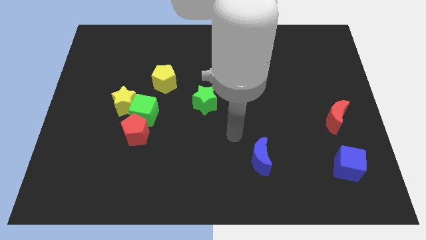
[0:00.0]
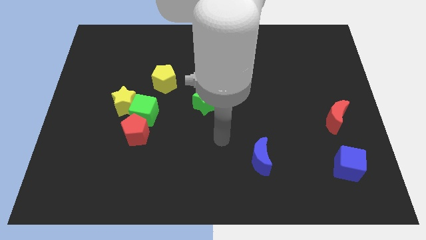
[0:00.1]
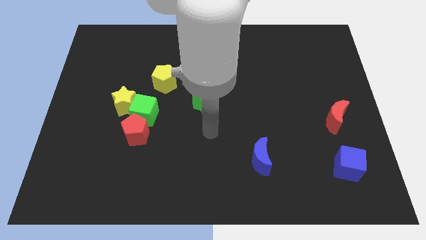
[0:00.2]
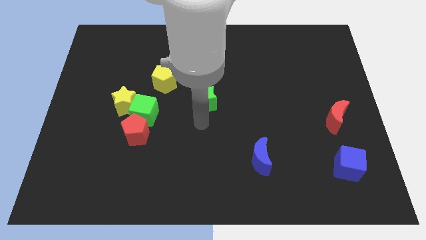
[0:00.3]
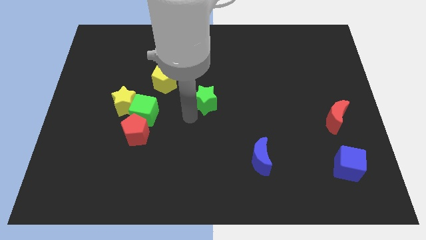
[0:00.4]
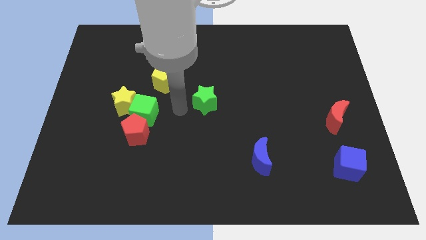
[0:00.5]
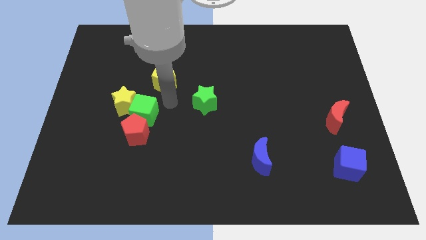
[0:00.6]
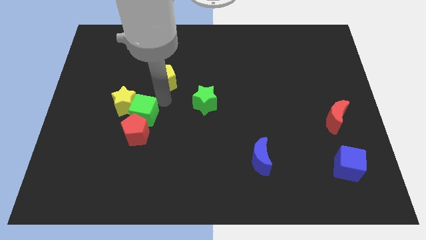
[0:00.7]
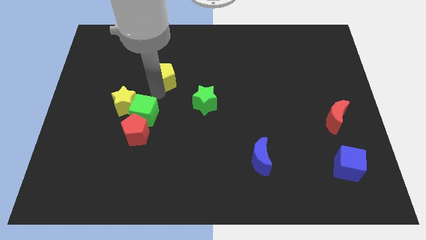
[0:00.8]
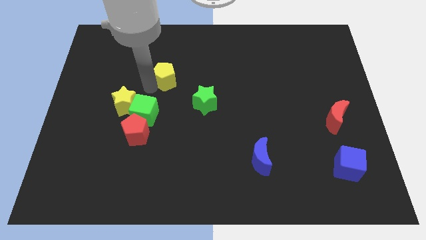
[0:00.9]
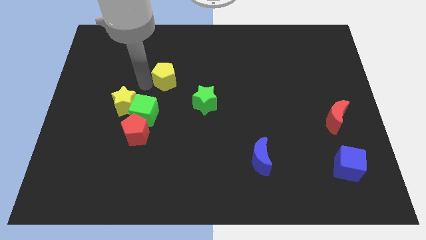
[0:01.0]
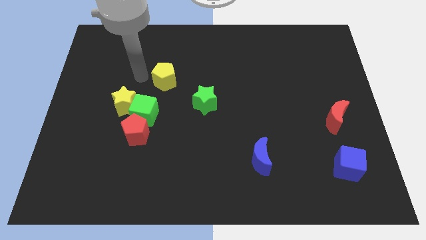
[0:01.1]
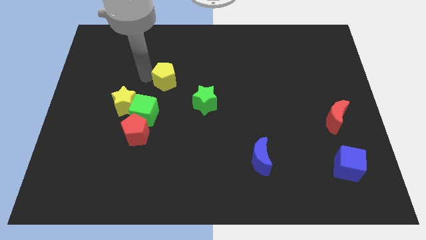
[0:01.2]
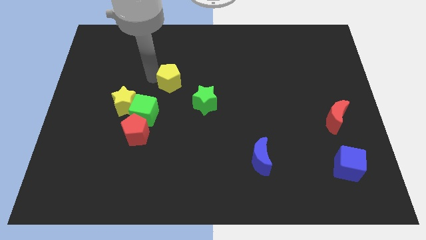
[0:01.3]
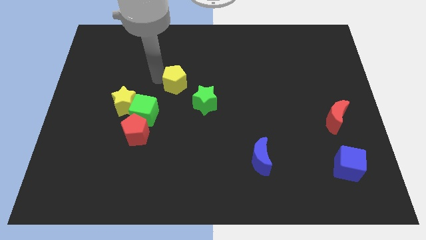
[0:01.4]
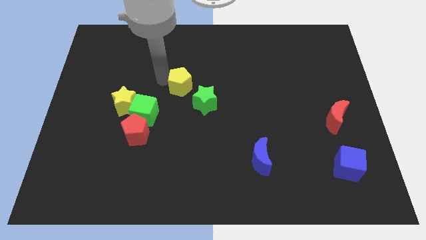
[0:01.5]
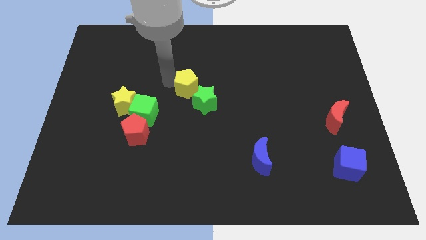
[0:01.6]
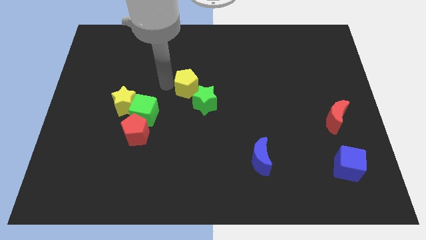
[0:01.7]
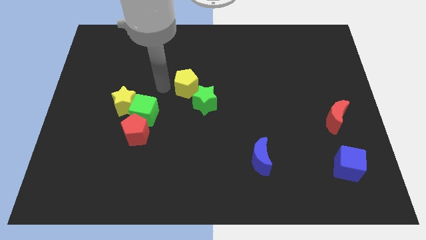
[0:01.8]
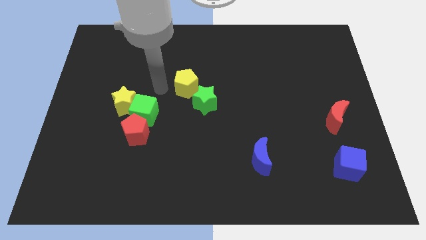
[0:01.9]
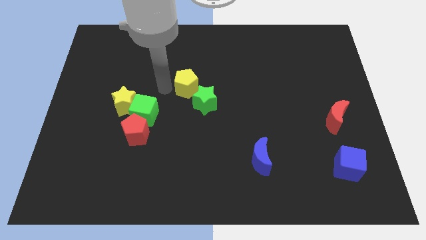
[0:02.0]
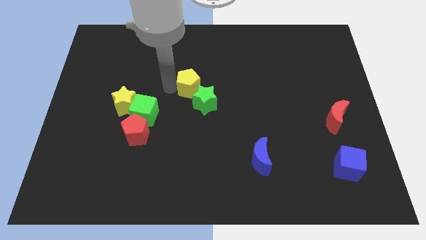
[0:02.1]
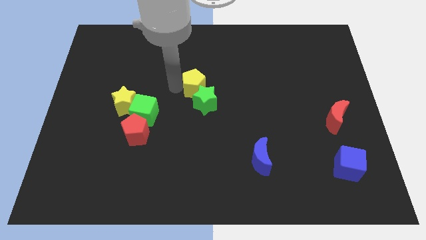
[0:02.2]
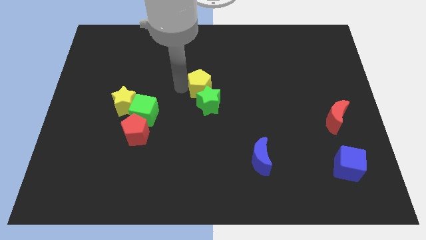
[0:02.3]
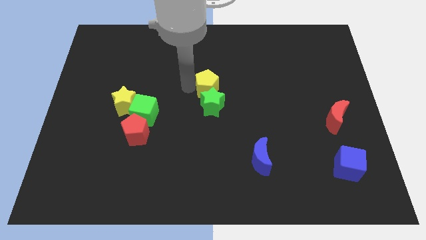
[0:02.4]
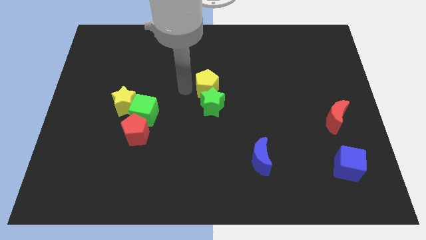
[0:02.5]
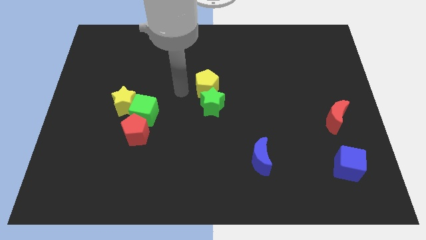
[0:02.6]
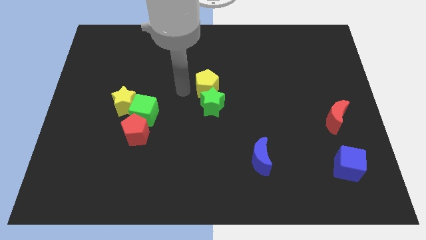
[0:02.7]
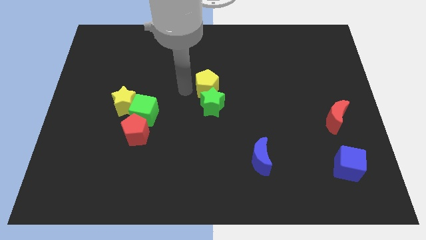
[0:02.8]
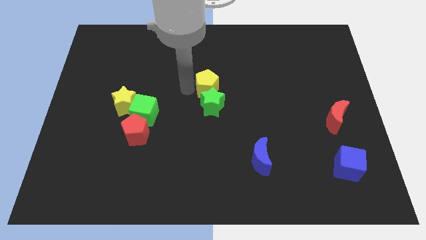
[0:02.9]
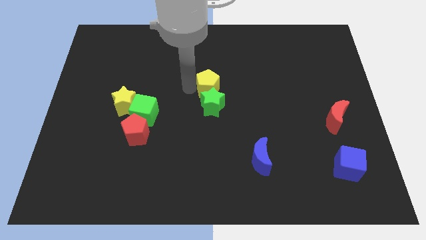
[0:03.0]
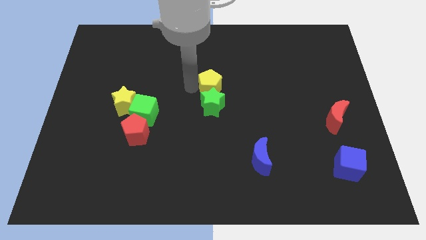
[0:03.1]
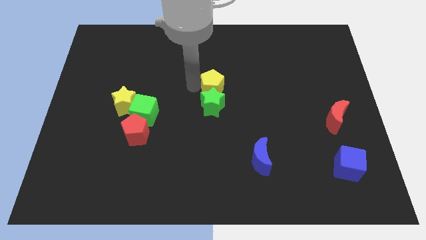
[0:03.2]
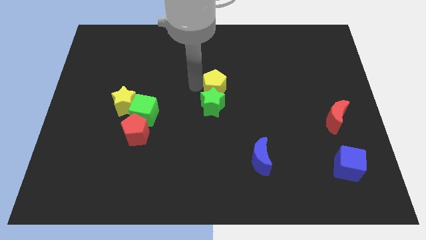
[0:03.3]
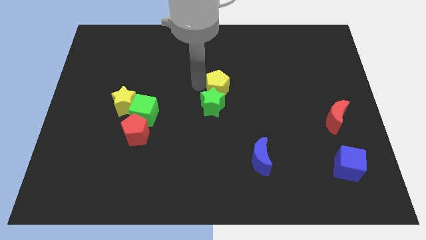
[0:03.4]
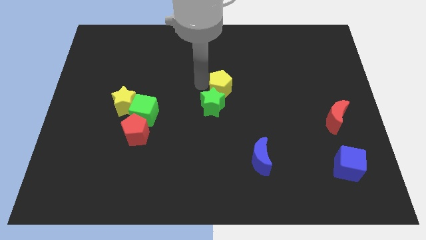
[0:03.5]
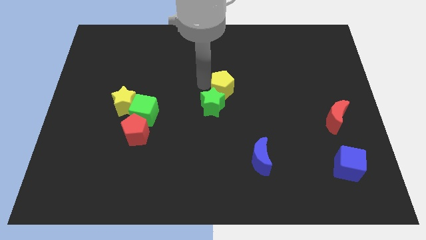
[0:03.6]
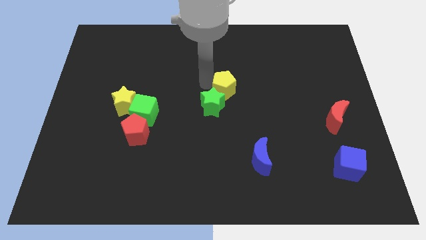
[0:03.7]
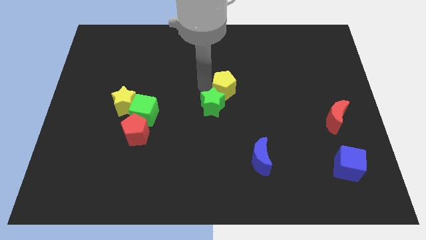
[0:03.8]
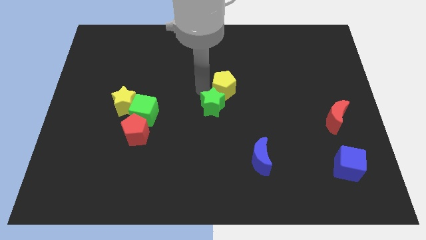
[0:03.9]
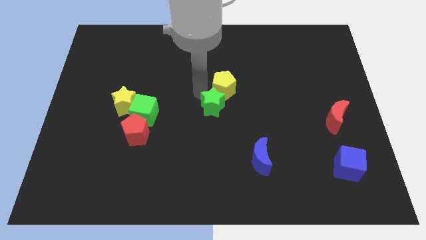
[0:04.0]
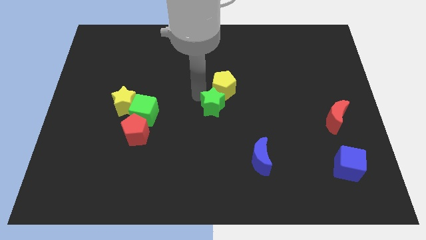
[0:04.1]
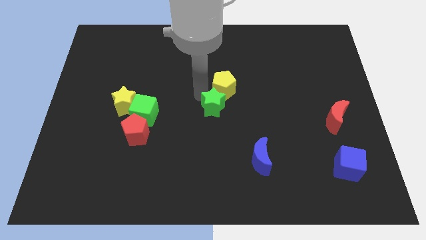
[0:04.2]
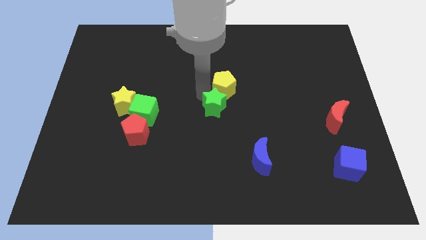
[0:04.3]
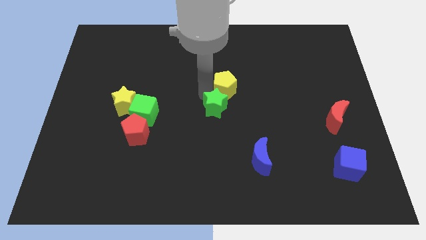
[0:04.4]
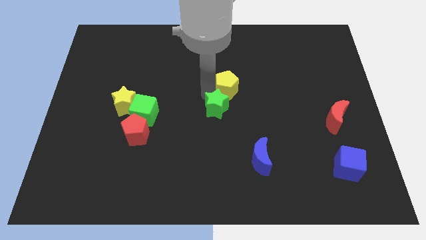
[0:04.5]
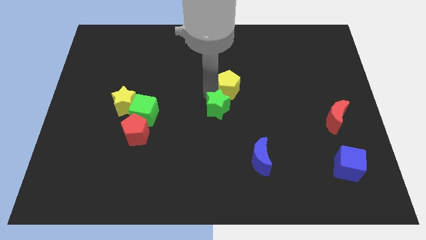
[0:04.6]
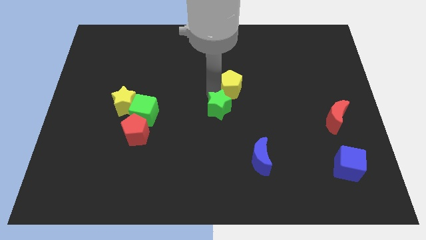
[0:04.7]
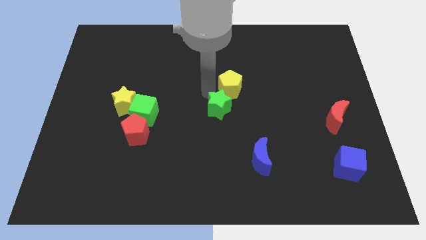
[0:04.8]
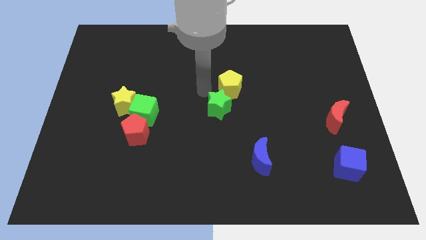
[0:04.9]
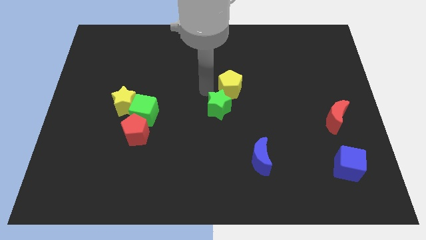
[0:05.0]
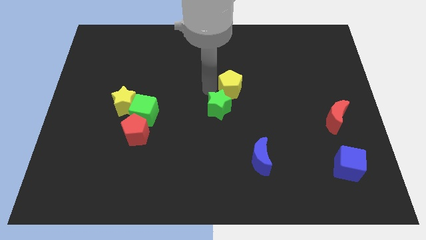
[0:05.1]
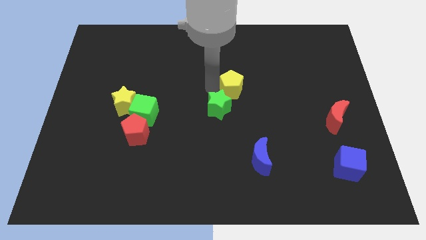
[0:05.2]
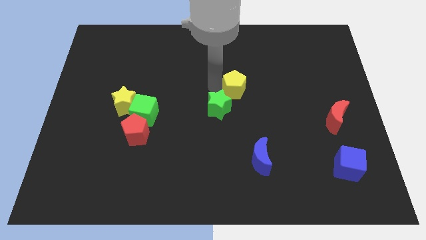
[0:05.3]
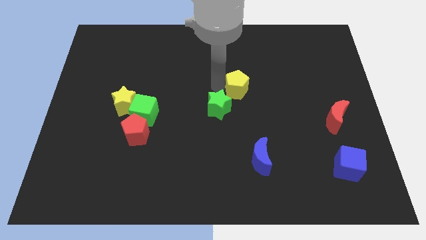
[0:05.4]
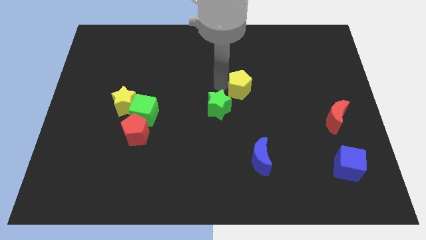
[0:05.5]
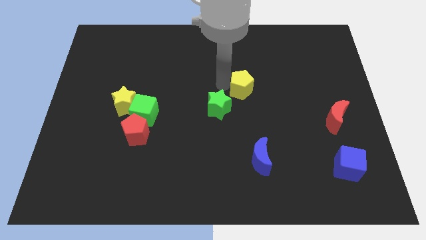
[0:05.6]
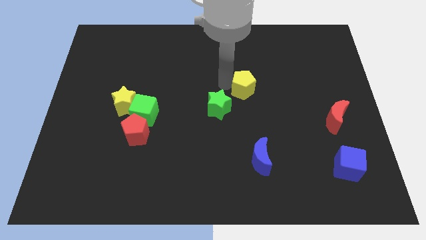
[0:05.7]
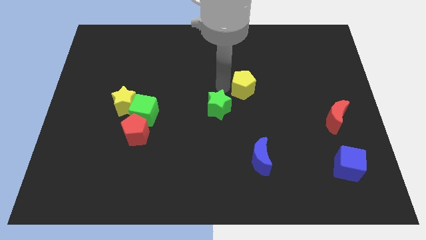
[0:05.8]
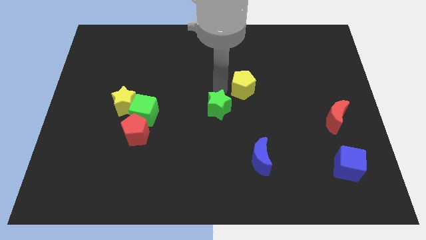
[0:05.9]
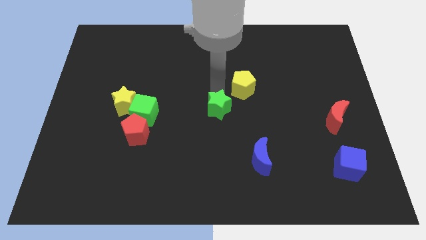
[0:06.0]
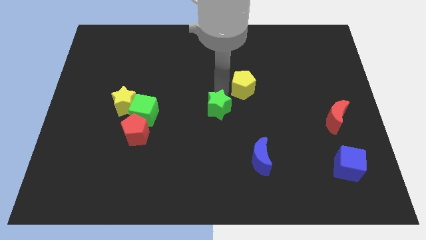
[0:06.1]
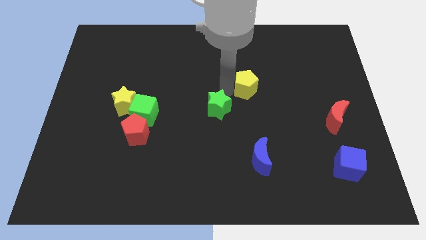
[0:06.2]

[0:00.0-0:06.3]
move the yellow pentagon right

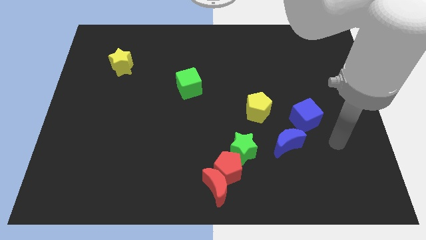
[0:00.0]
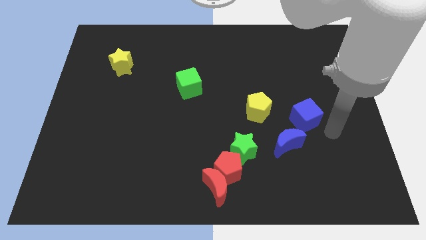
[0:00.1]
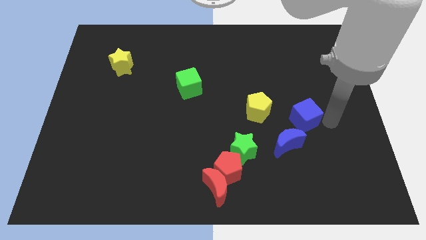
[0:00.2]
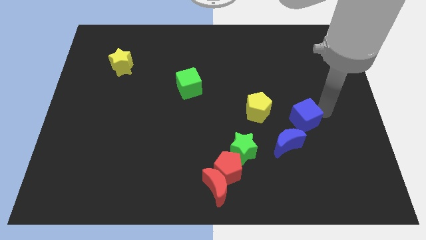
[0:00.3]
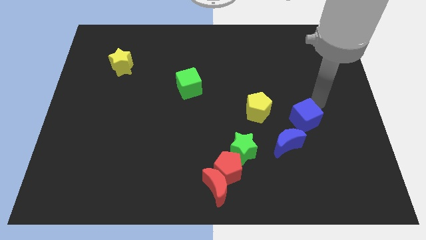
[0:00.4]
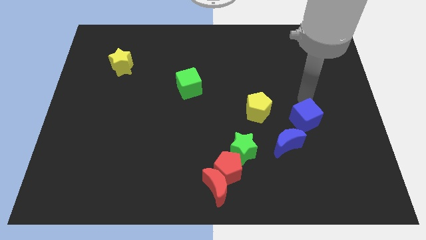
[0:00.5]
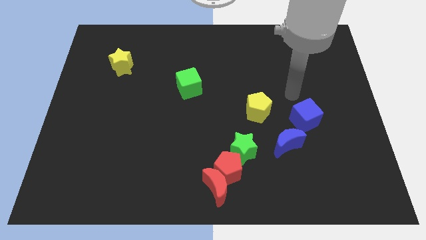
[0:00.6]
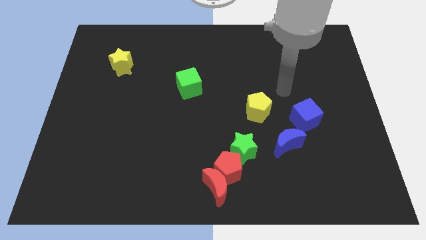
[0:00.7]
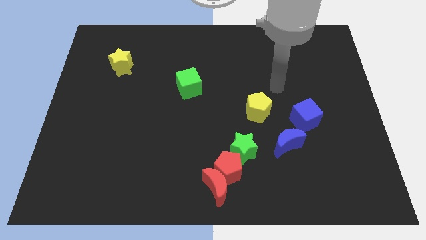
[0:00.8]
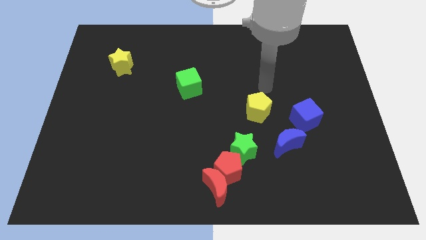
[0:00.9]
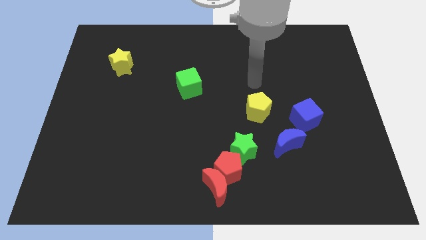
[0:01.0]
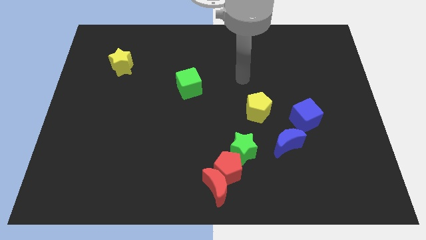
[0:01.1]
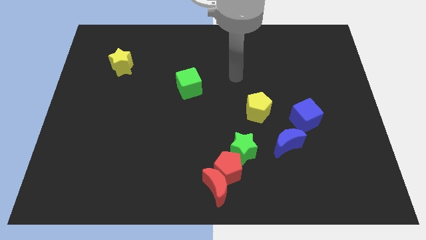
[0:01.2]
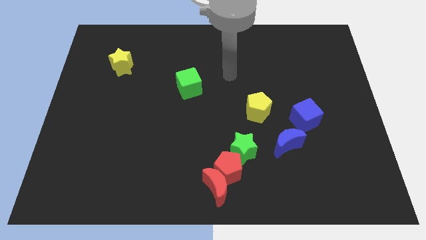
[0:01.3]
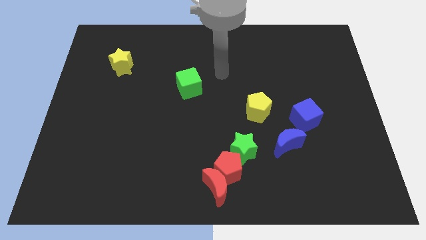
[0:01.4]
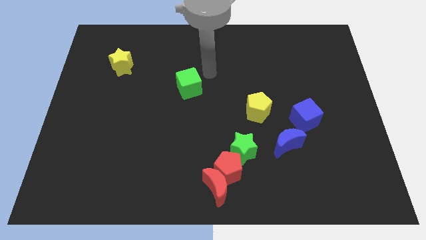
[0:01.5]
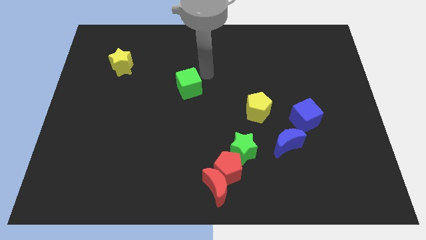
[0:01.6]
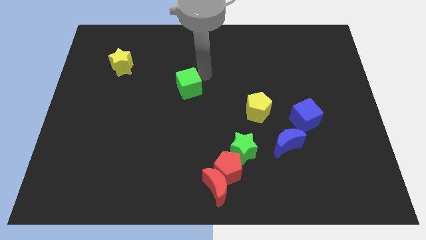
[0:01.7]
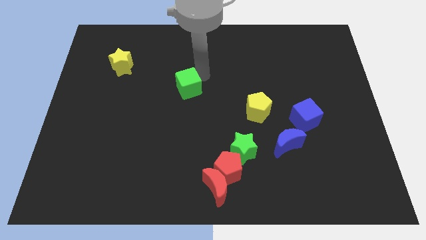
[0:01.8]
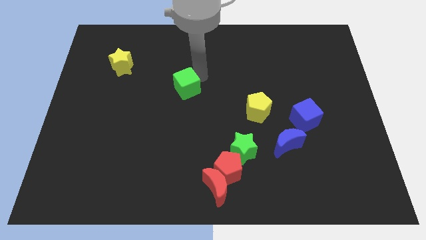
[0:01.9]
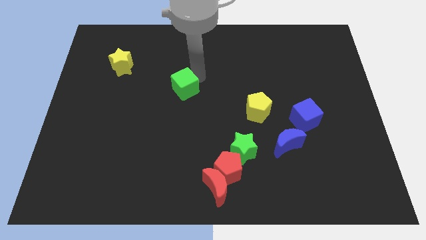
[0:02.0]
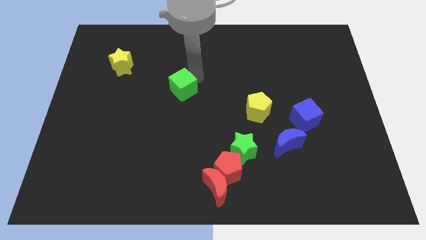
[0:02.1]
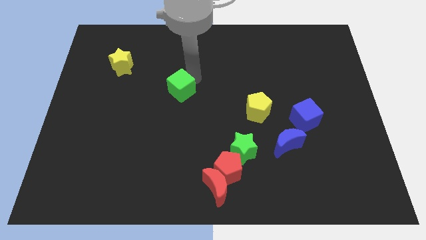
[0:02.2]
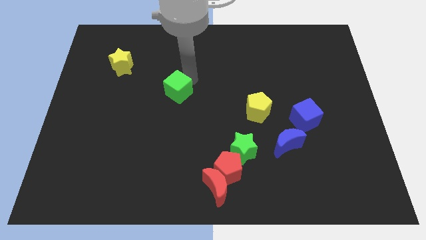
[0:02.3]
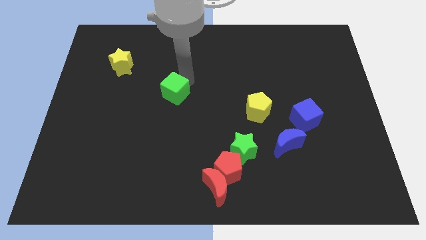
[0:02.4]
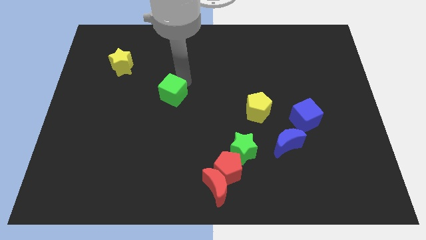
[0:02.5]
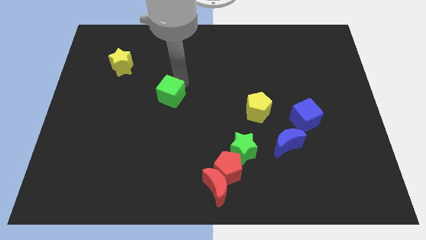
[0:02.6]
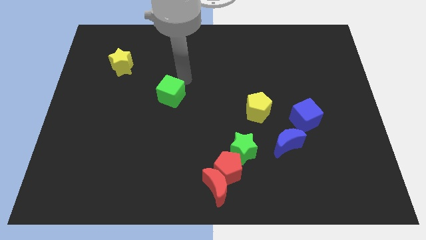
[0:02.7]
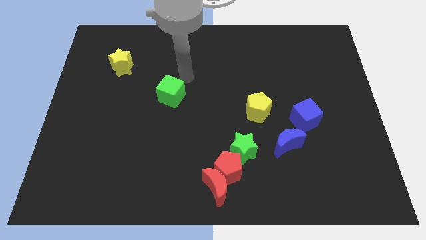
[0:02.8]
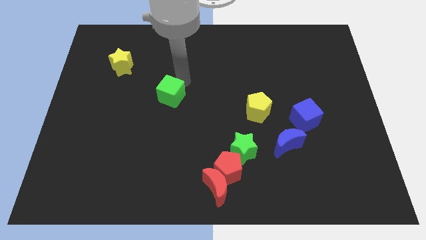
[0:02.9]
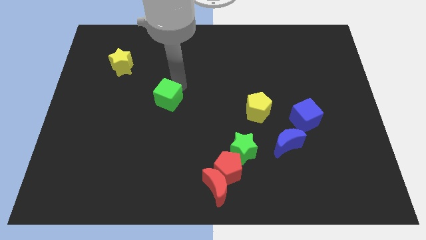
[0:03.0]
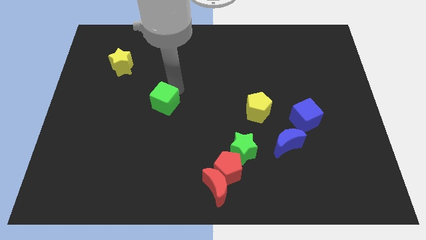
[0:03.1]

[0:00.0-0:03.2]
push the green cube down and to the left slightly
